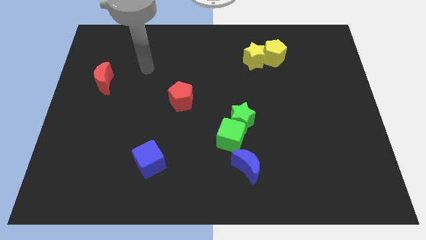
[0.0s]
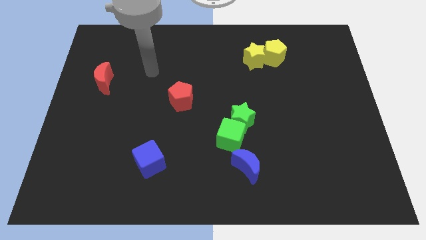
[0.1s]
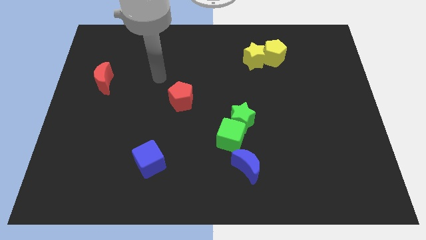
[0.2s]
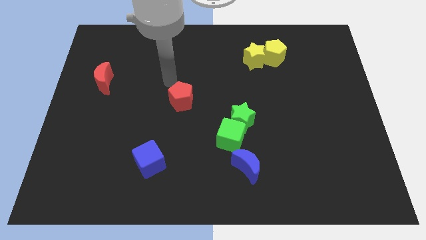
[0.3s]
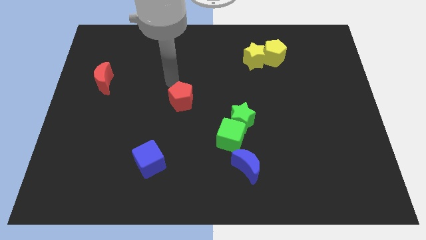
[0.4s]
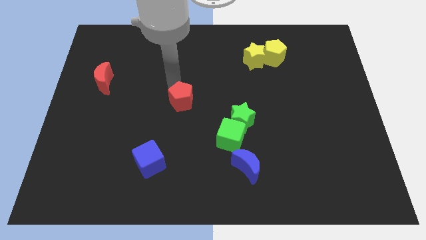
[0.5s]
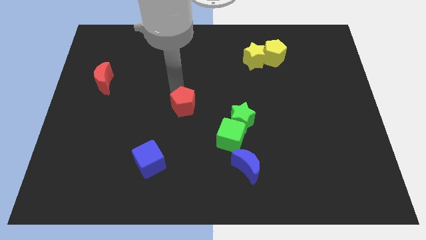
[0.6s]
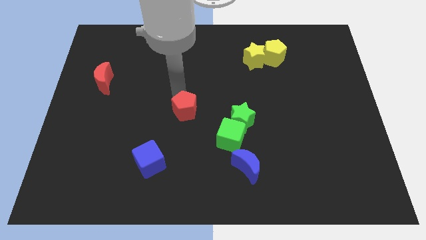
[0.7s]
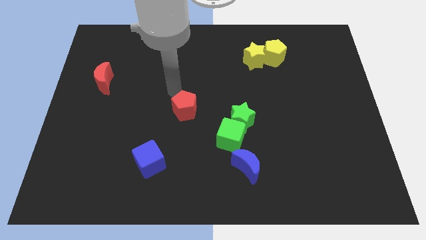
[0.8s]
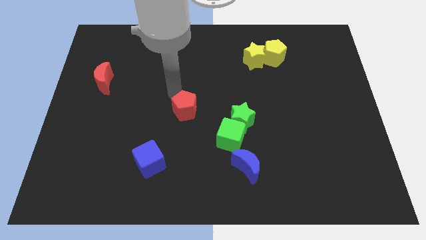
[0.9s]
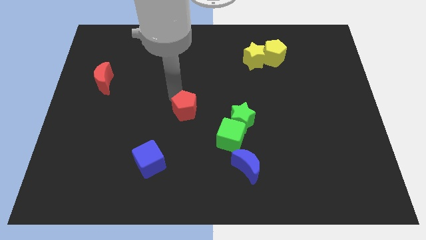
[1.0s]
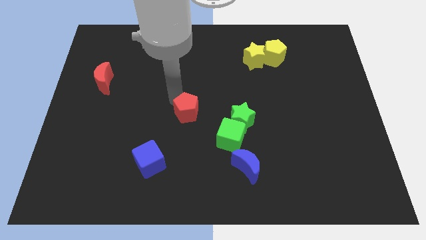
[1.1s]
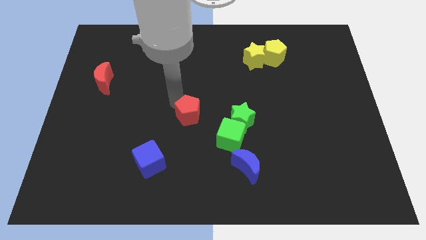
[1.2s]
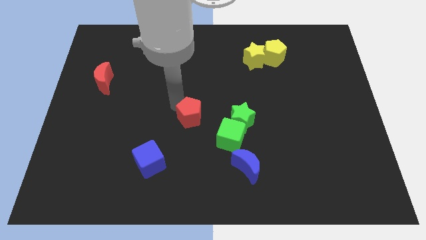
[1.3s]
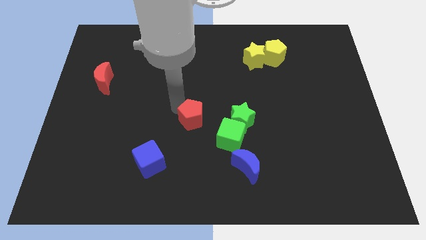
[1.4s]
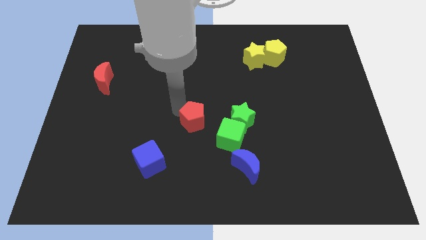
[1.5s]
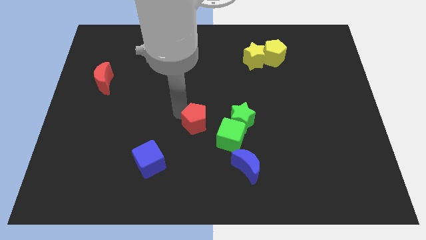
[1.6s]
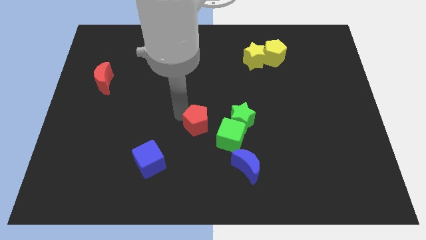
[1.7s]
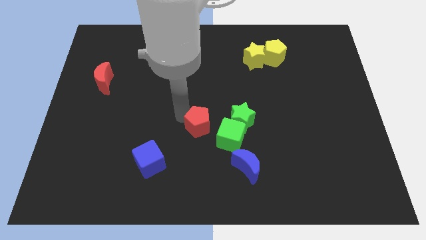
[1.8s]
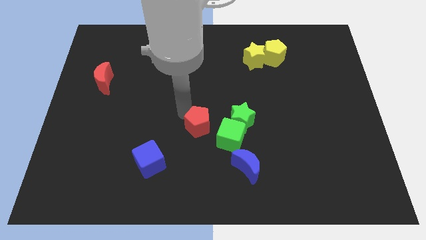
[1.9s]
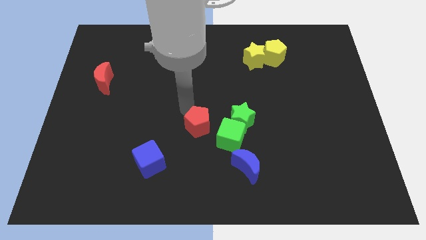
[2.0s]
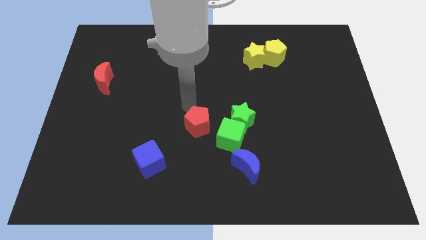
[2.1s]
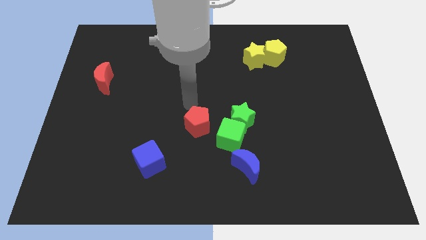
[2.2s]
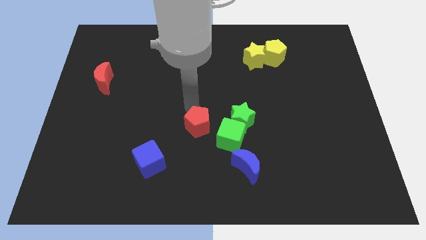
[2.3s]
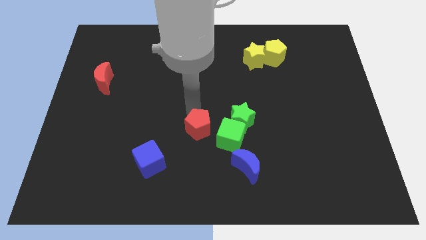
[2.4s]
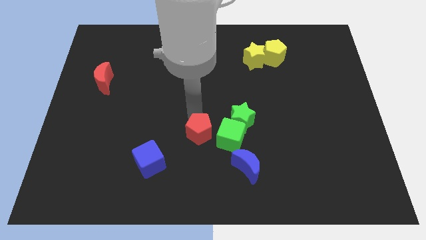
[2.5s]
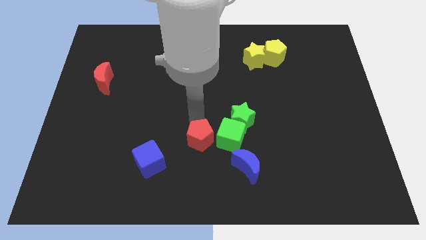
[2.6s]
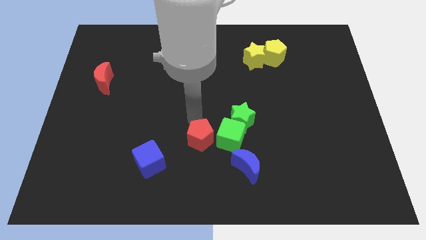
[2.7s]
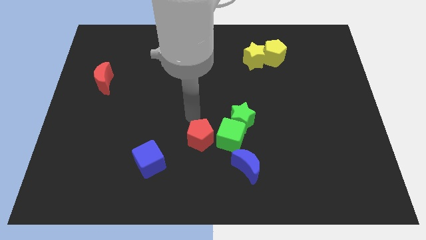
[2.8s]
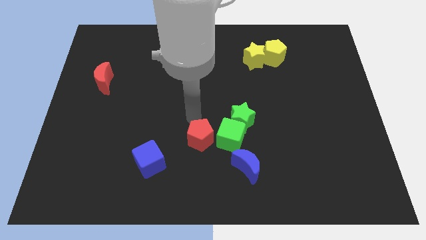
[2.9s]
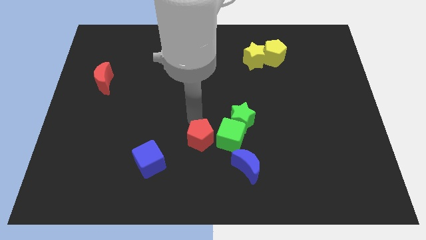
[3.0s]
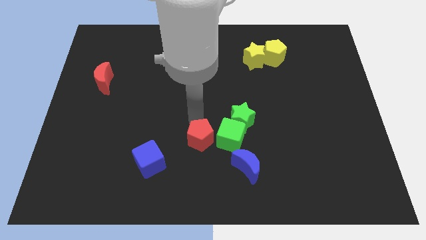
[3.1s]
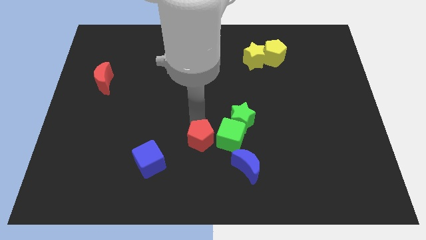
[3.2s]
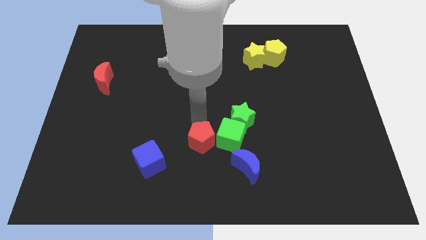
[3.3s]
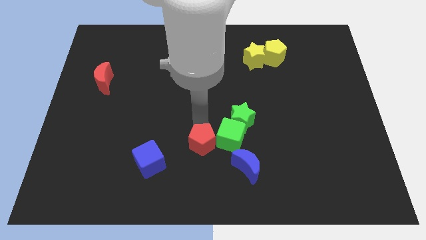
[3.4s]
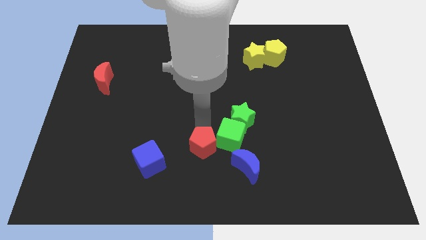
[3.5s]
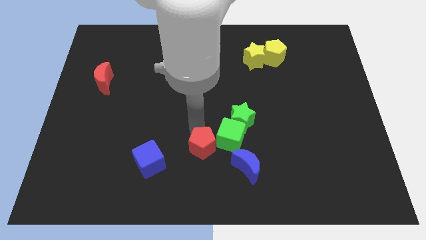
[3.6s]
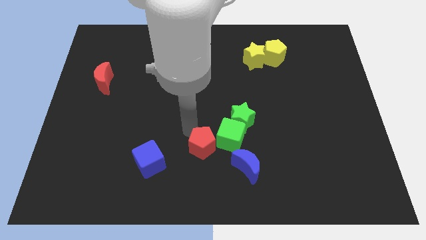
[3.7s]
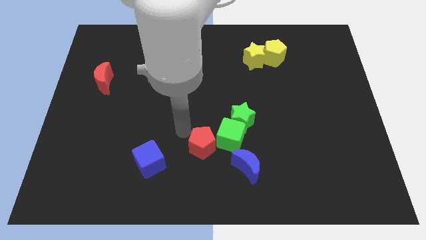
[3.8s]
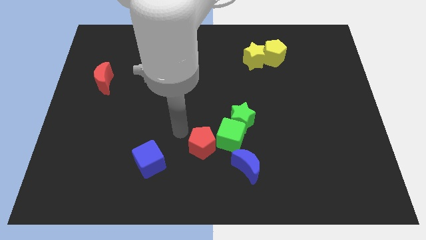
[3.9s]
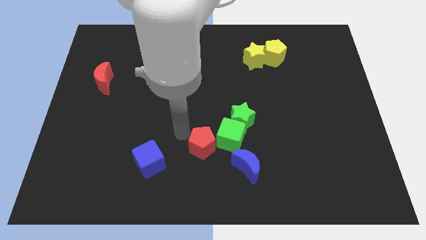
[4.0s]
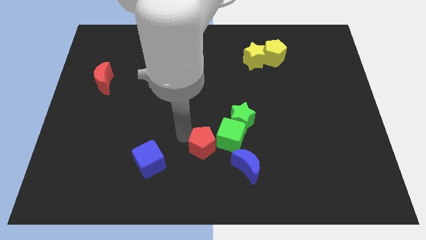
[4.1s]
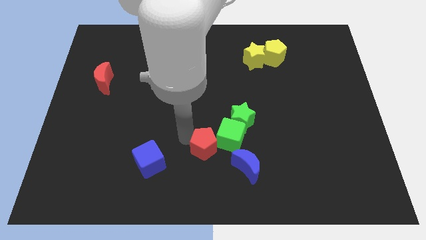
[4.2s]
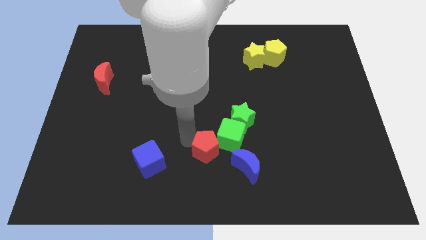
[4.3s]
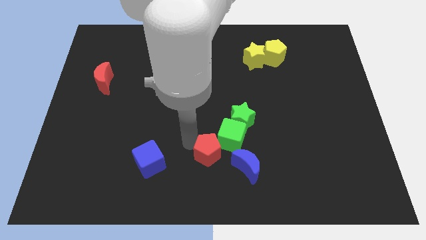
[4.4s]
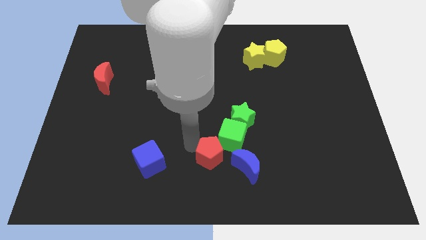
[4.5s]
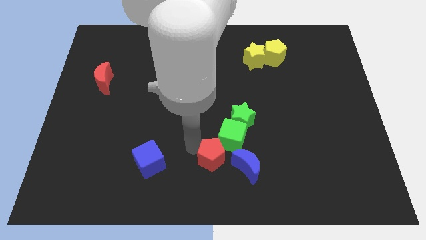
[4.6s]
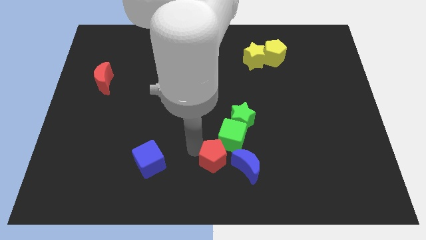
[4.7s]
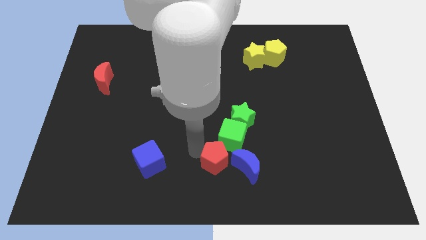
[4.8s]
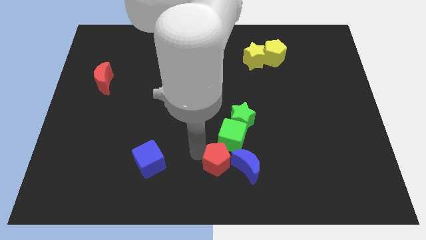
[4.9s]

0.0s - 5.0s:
push the red pentagon close to the blue moon

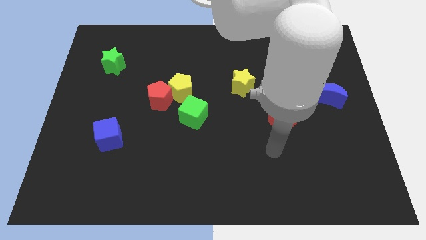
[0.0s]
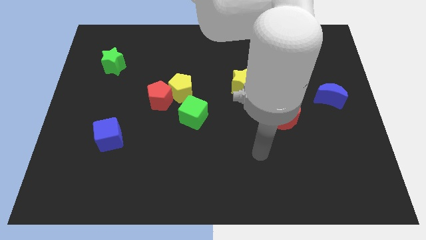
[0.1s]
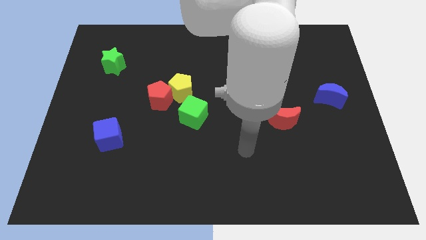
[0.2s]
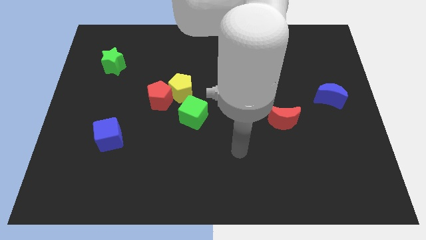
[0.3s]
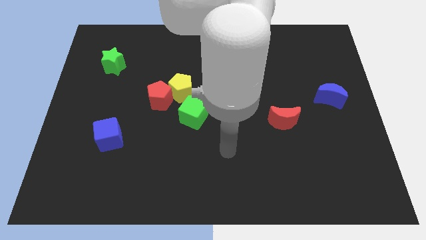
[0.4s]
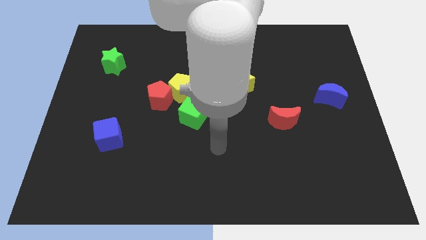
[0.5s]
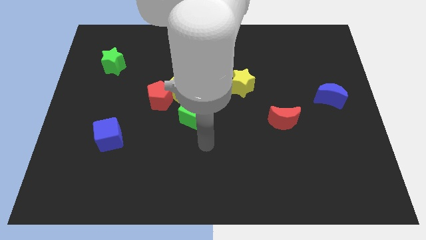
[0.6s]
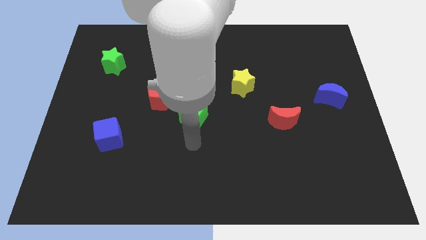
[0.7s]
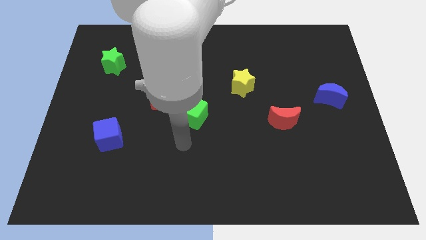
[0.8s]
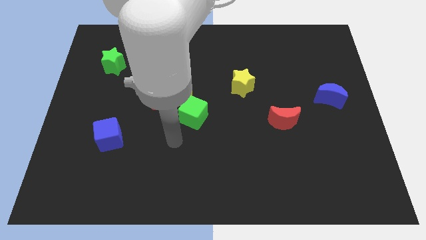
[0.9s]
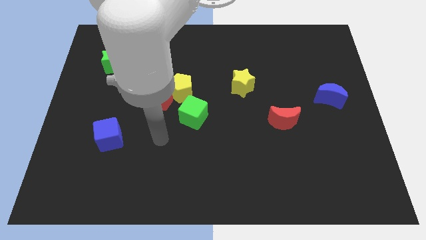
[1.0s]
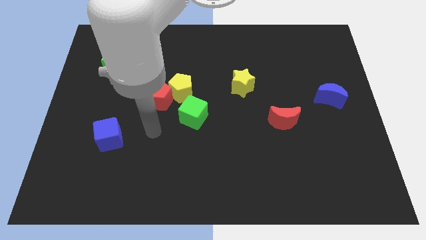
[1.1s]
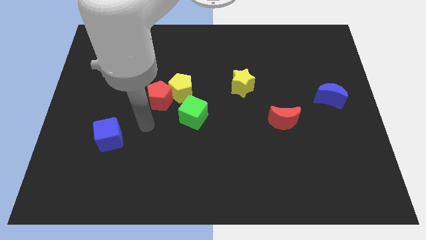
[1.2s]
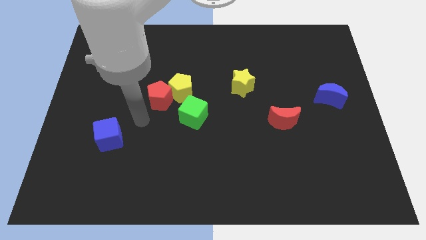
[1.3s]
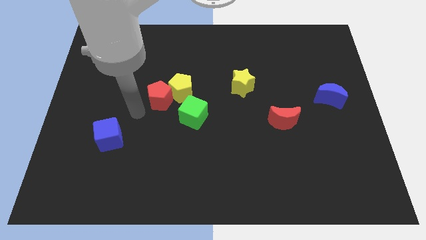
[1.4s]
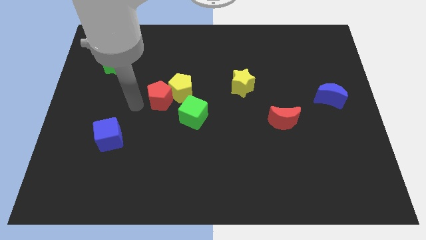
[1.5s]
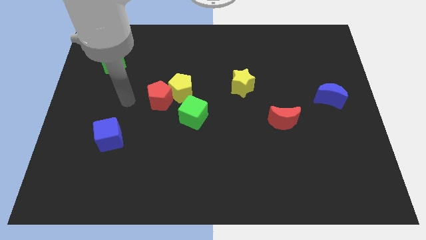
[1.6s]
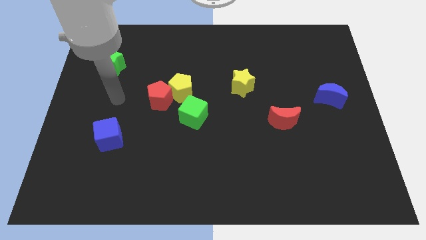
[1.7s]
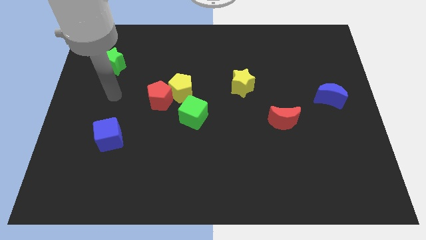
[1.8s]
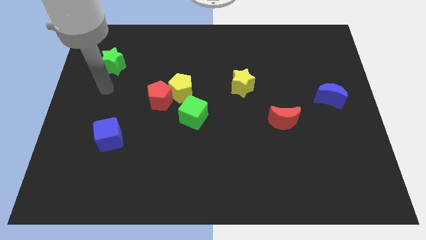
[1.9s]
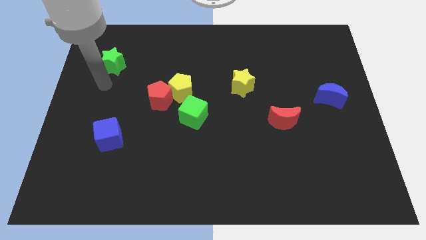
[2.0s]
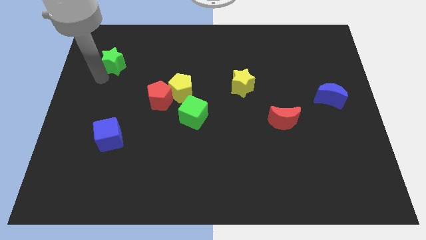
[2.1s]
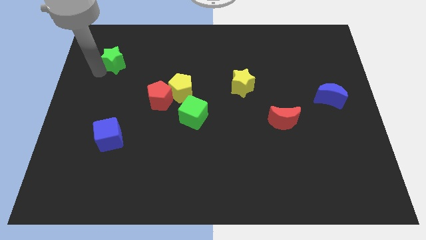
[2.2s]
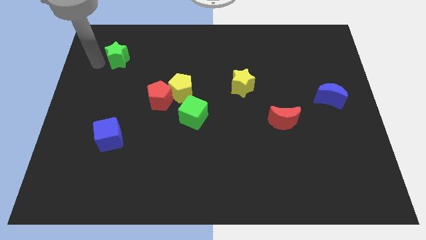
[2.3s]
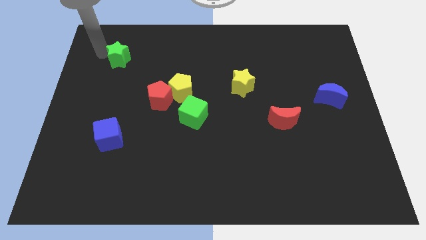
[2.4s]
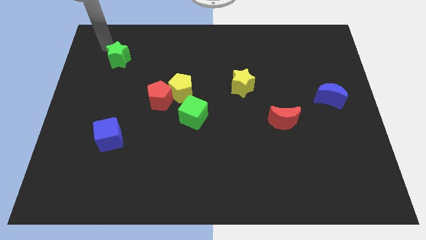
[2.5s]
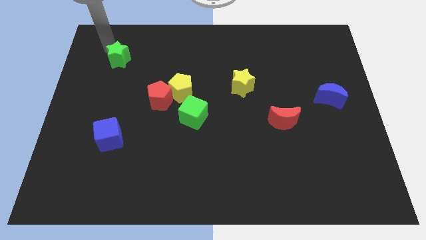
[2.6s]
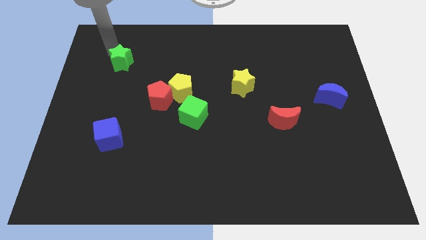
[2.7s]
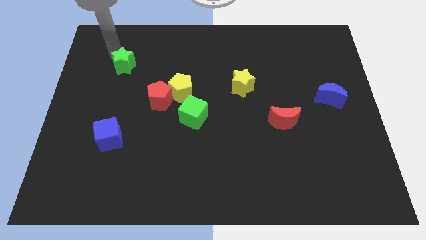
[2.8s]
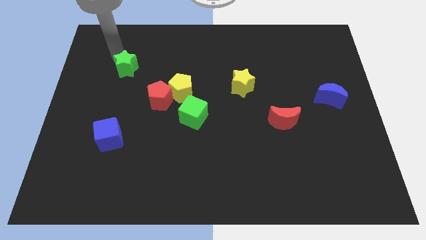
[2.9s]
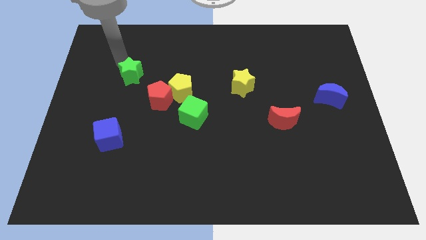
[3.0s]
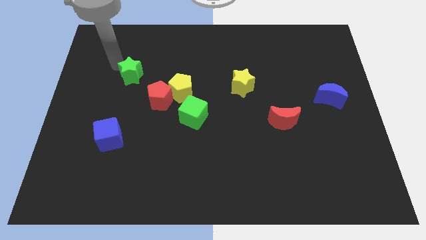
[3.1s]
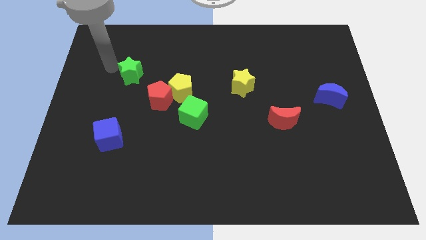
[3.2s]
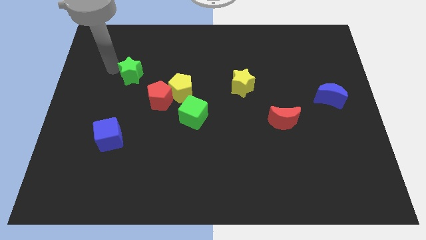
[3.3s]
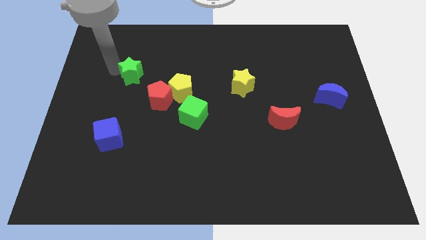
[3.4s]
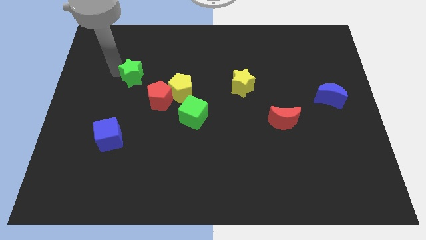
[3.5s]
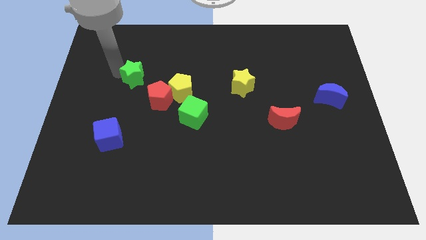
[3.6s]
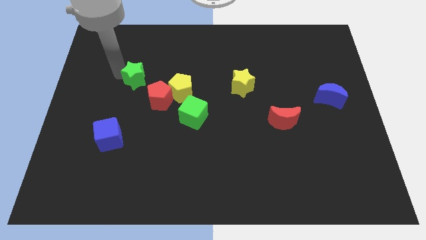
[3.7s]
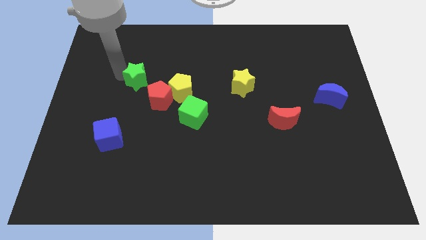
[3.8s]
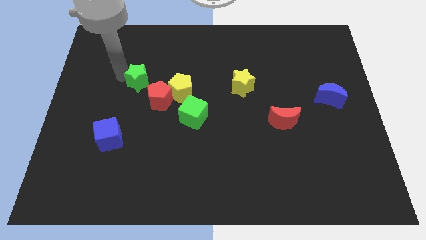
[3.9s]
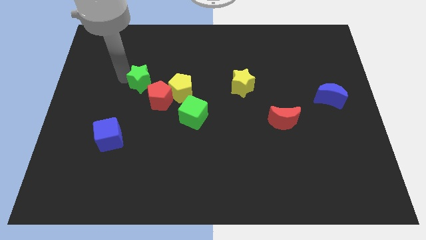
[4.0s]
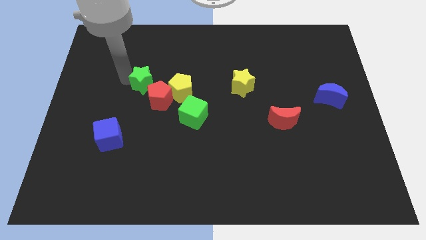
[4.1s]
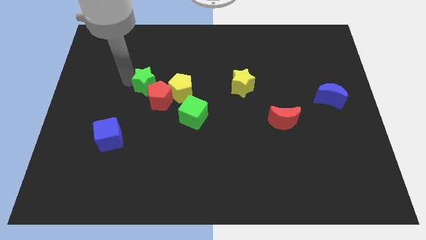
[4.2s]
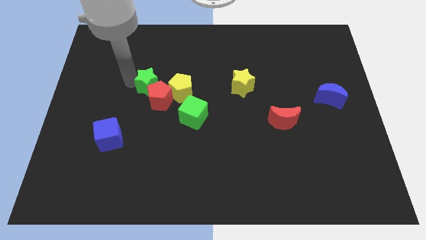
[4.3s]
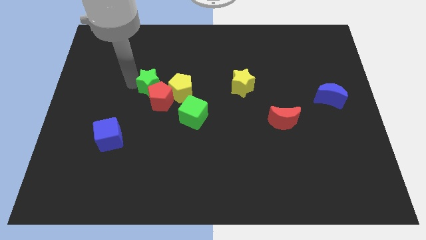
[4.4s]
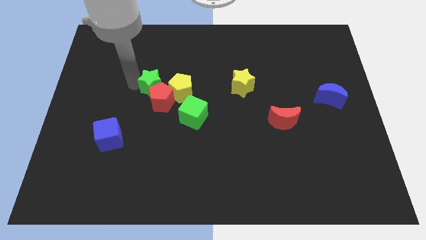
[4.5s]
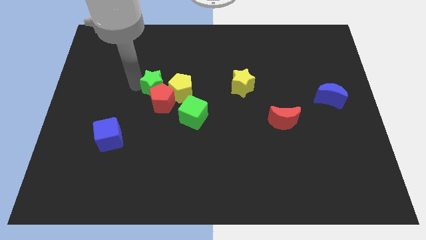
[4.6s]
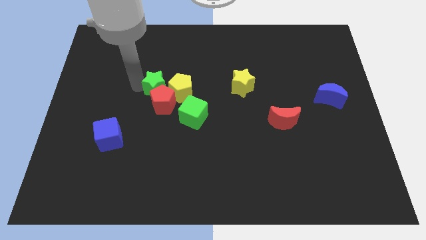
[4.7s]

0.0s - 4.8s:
put the green star towards the yellow pentagon
